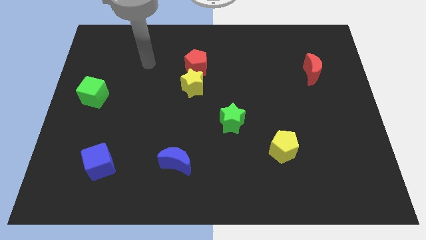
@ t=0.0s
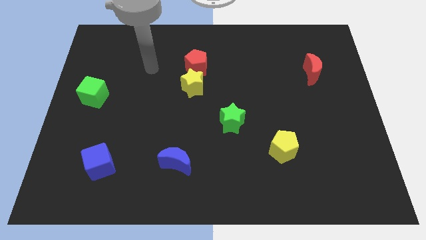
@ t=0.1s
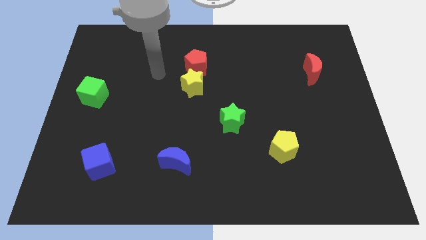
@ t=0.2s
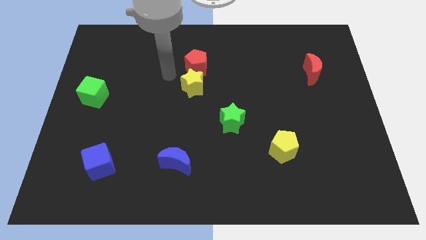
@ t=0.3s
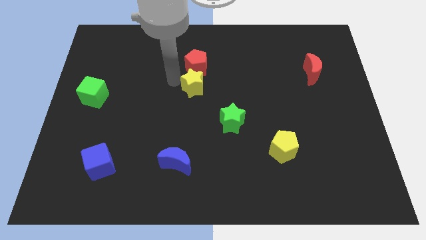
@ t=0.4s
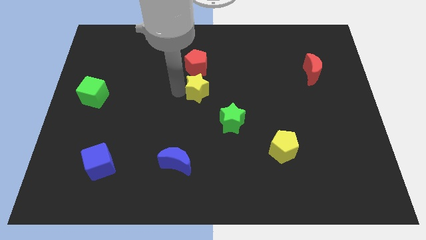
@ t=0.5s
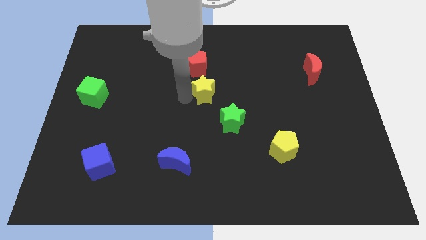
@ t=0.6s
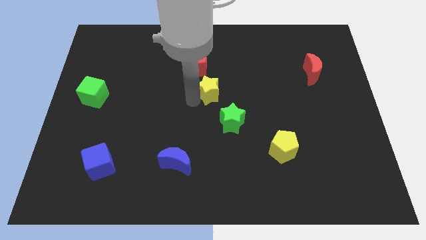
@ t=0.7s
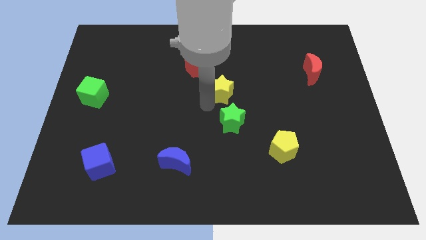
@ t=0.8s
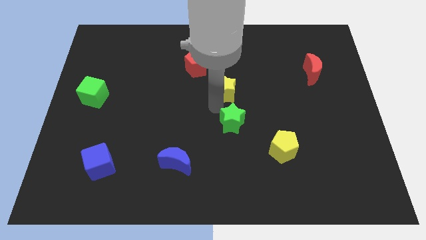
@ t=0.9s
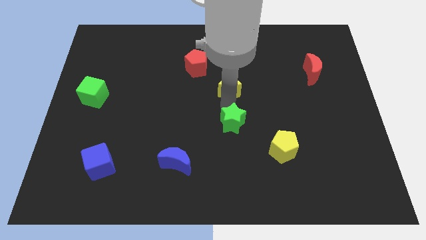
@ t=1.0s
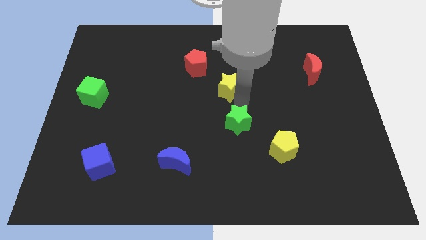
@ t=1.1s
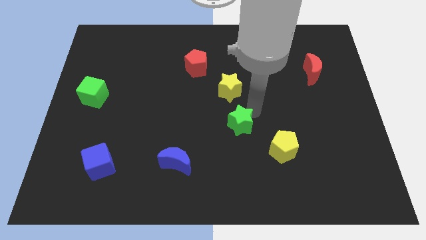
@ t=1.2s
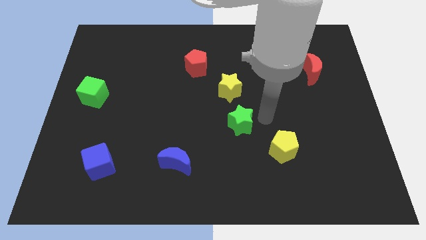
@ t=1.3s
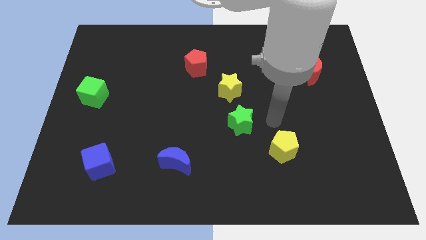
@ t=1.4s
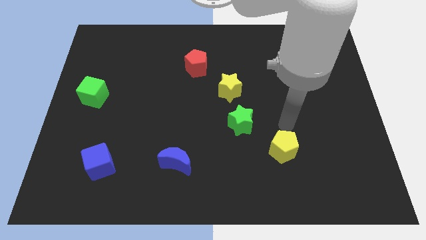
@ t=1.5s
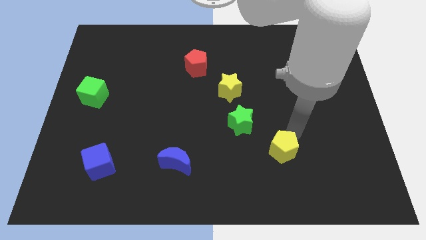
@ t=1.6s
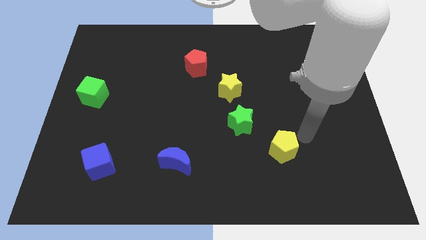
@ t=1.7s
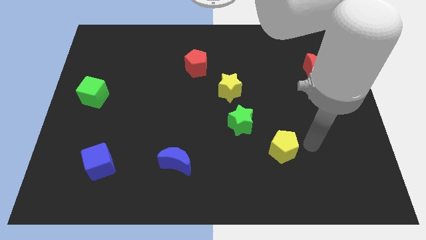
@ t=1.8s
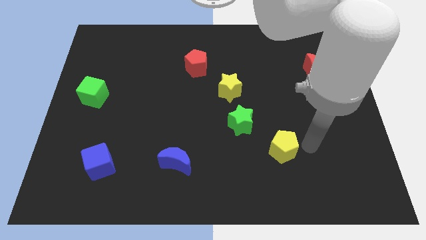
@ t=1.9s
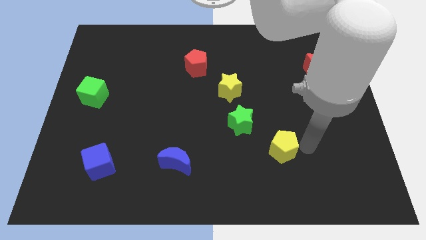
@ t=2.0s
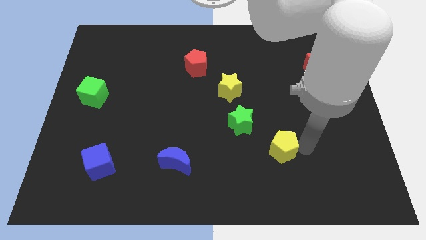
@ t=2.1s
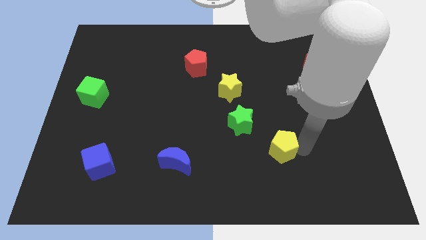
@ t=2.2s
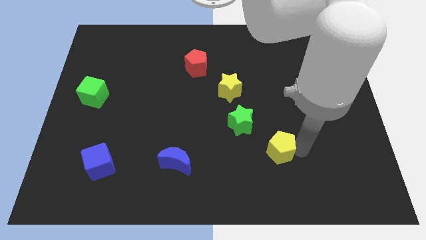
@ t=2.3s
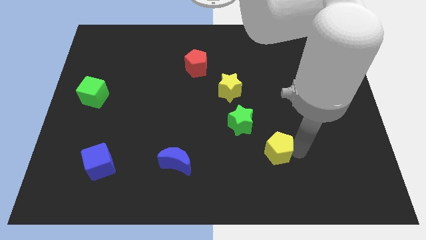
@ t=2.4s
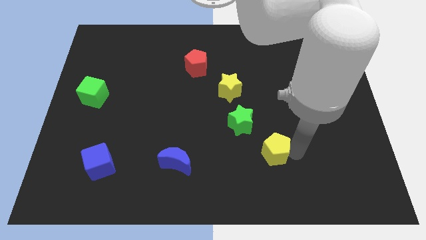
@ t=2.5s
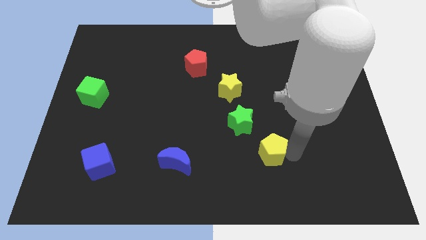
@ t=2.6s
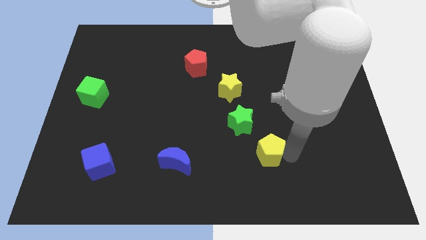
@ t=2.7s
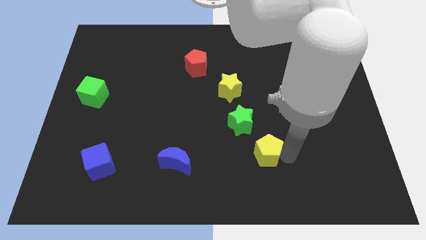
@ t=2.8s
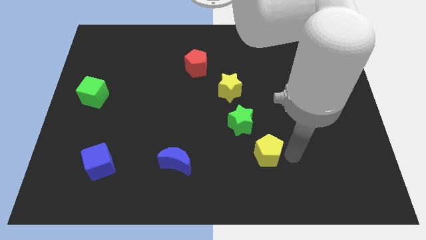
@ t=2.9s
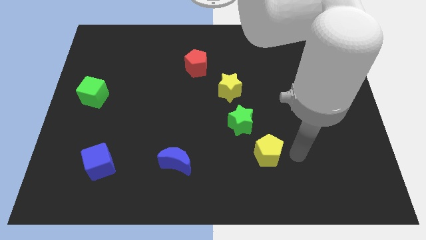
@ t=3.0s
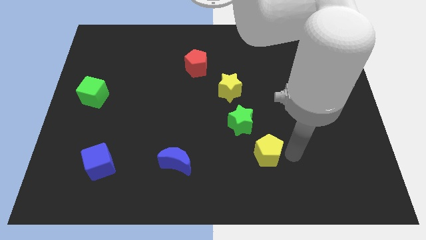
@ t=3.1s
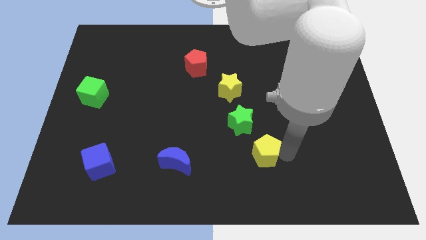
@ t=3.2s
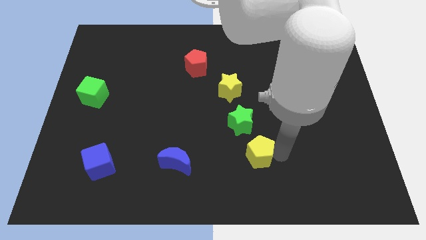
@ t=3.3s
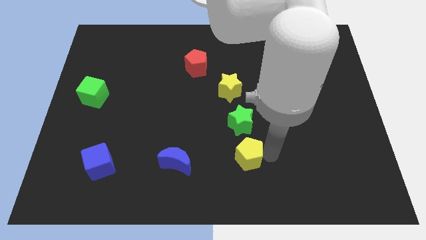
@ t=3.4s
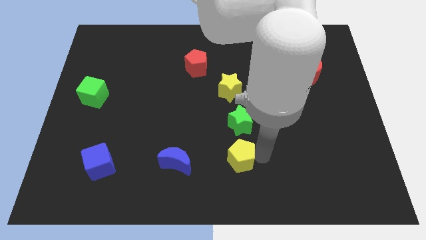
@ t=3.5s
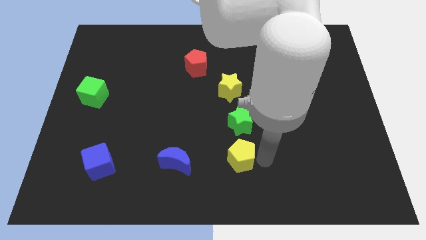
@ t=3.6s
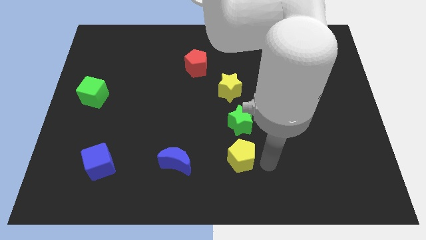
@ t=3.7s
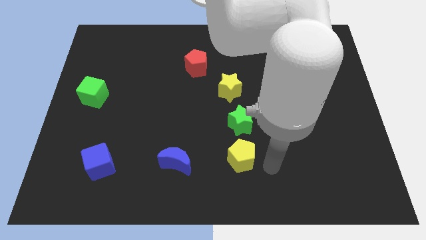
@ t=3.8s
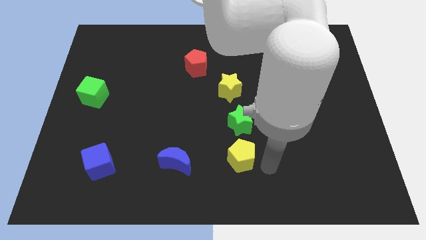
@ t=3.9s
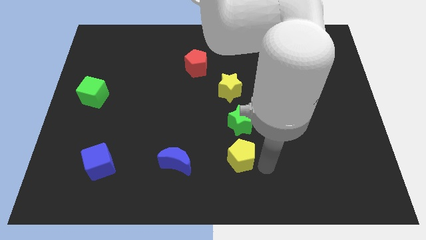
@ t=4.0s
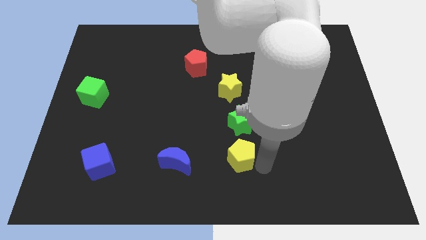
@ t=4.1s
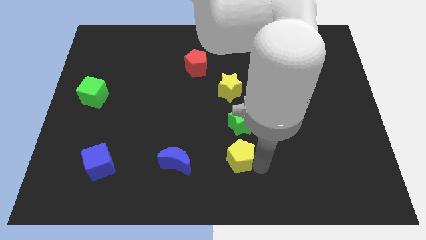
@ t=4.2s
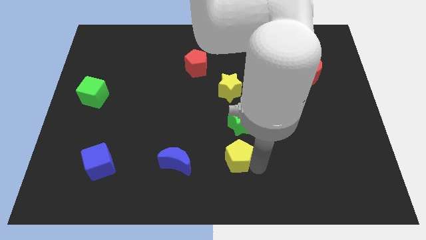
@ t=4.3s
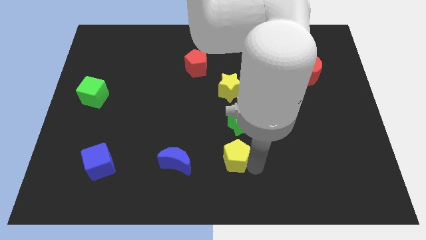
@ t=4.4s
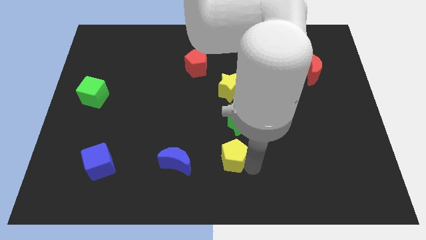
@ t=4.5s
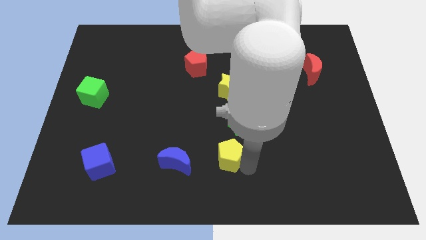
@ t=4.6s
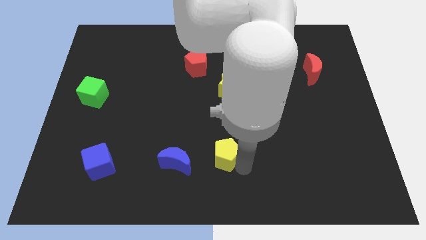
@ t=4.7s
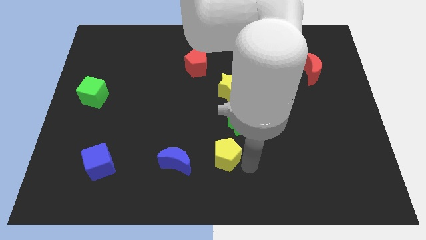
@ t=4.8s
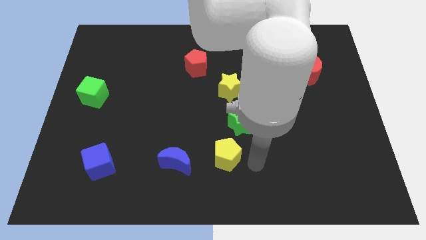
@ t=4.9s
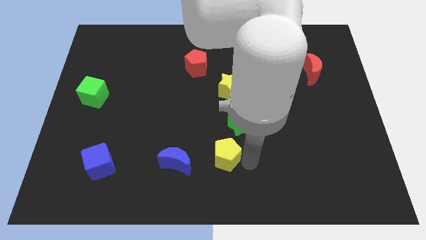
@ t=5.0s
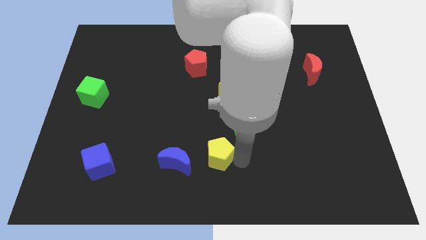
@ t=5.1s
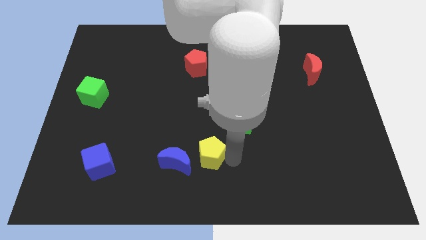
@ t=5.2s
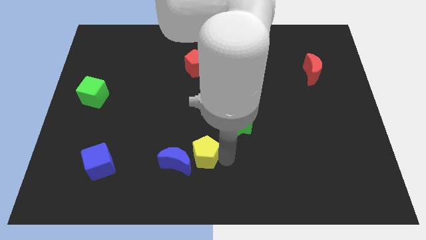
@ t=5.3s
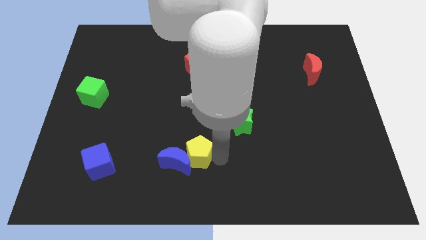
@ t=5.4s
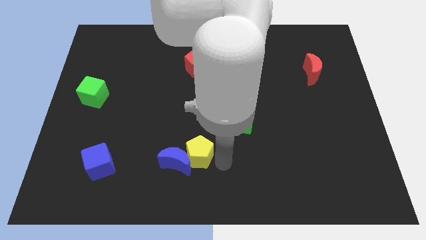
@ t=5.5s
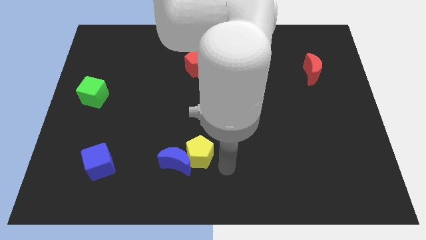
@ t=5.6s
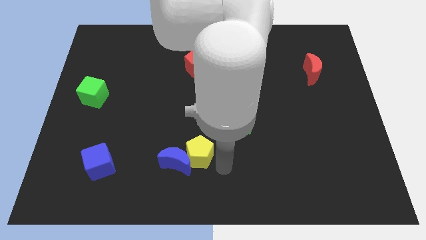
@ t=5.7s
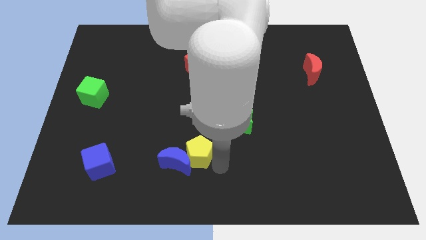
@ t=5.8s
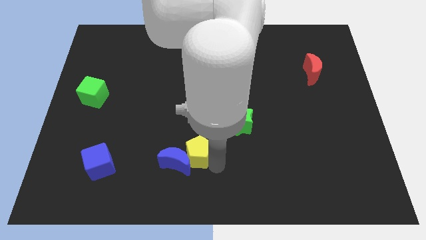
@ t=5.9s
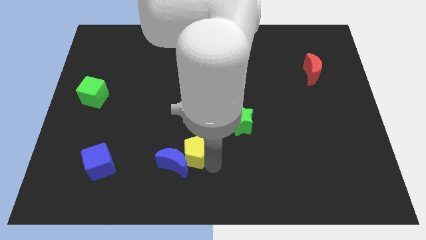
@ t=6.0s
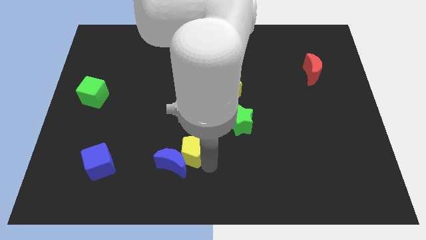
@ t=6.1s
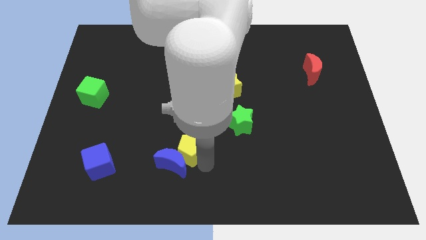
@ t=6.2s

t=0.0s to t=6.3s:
push the yellow pentagon left

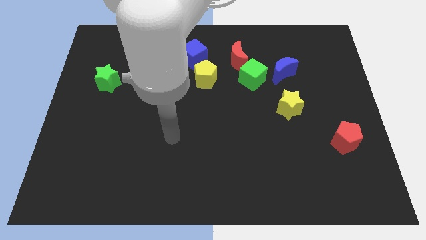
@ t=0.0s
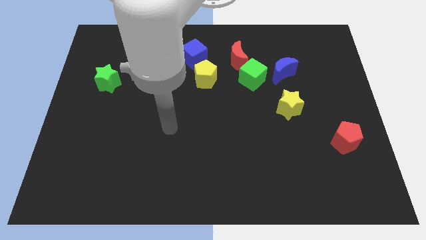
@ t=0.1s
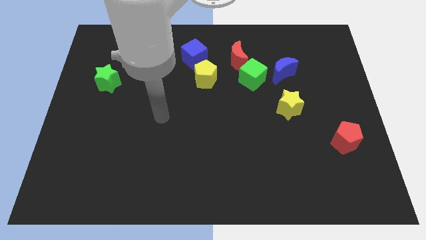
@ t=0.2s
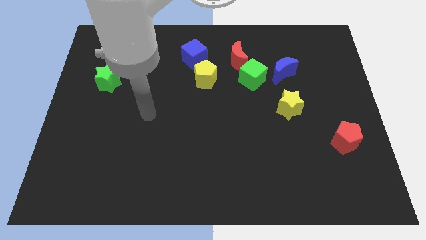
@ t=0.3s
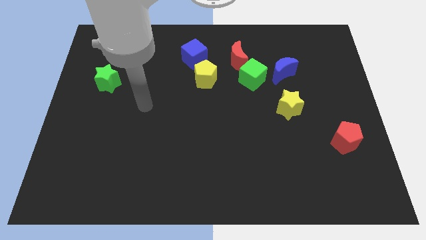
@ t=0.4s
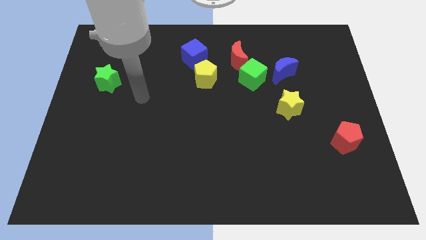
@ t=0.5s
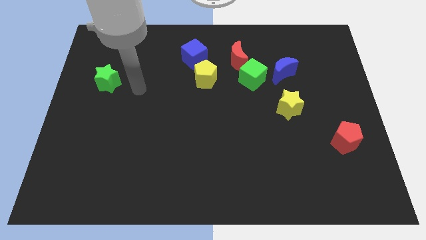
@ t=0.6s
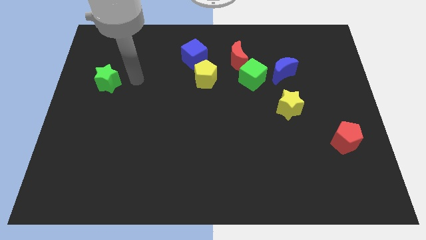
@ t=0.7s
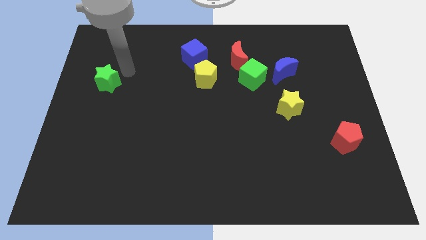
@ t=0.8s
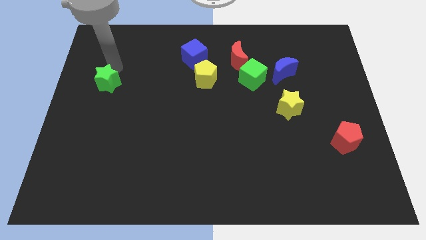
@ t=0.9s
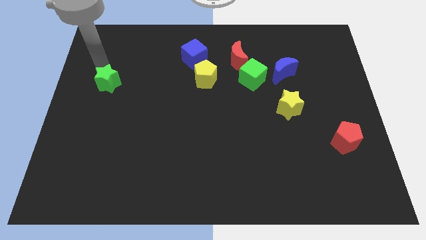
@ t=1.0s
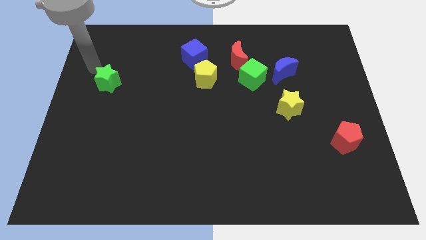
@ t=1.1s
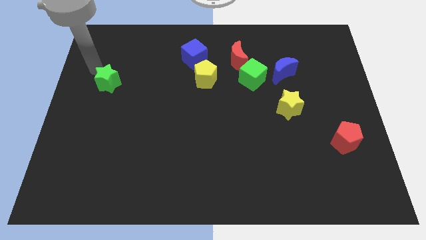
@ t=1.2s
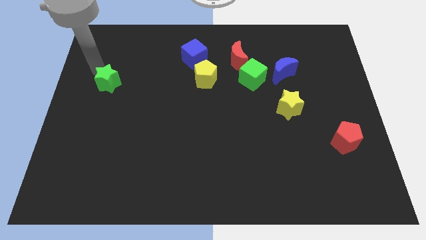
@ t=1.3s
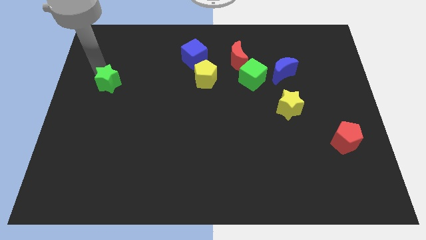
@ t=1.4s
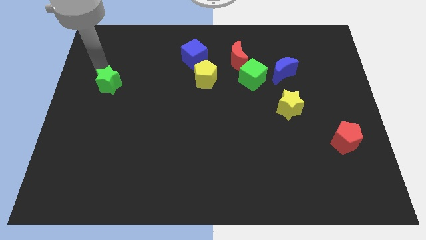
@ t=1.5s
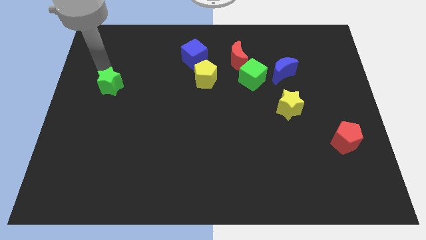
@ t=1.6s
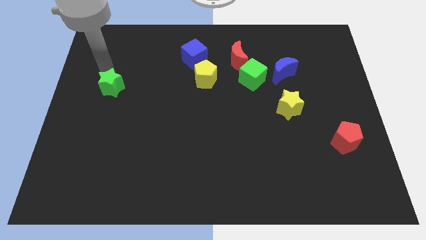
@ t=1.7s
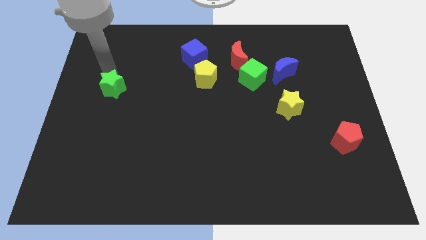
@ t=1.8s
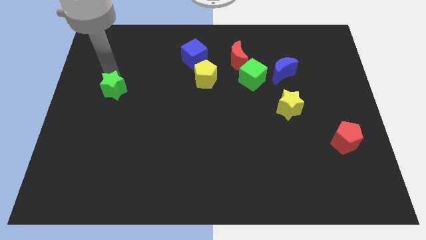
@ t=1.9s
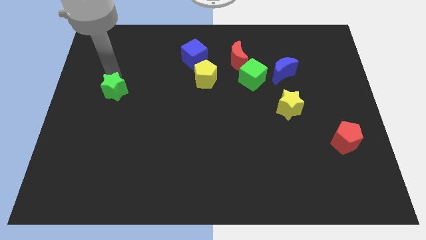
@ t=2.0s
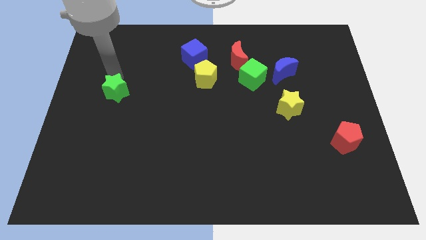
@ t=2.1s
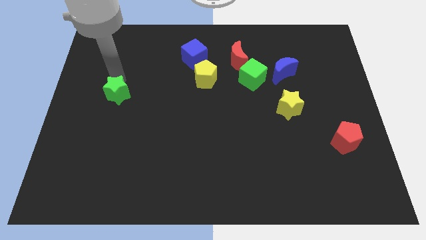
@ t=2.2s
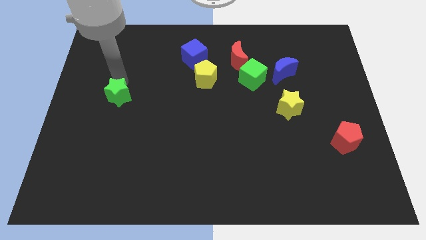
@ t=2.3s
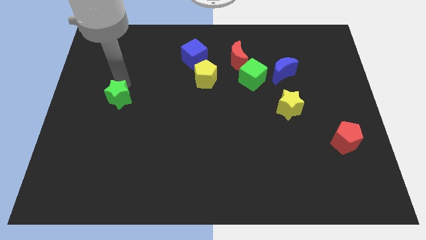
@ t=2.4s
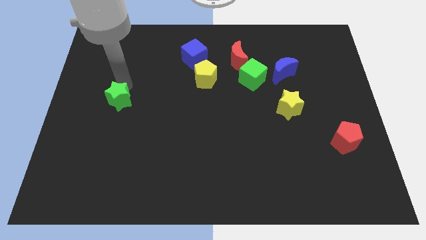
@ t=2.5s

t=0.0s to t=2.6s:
push the green star down and to the right diagonally slightly
